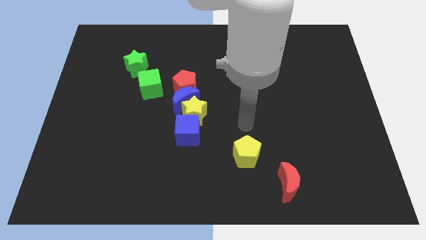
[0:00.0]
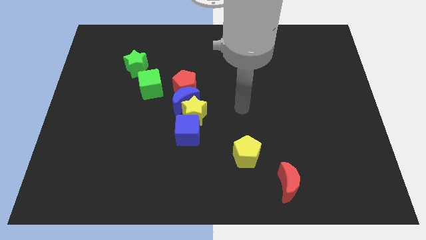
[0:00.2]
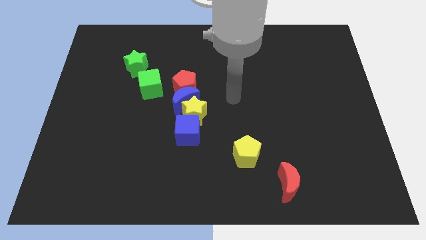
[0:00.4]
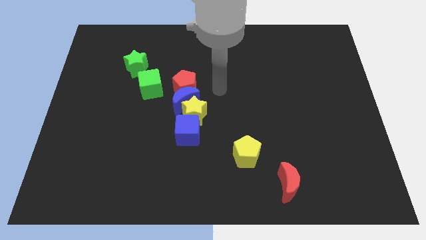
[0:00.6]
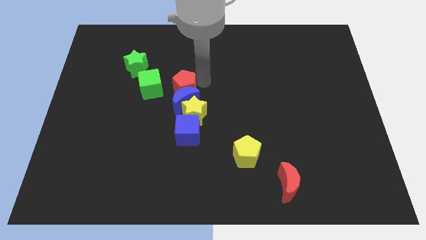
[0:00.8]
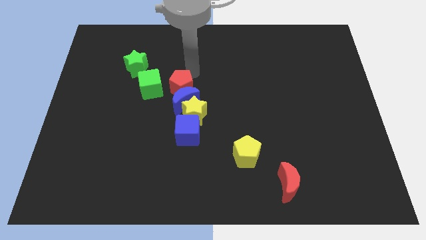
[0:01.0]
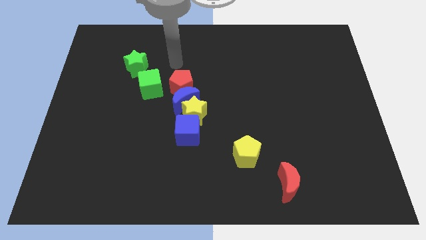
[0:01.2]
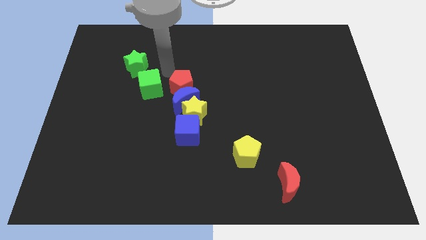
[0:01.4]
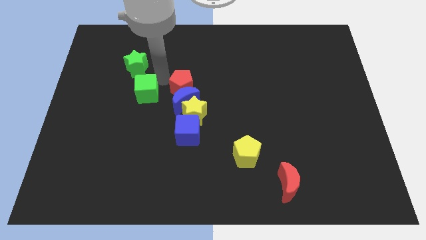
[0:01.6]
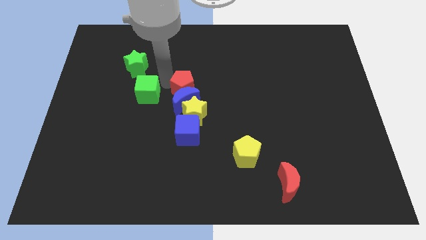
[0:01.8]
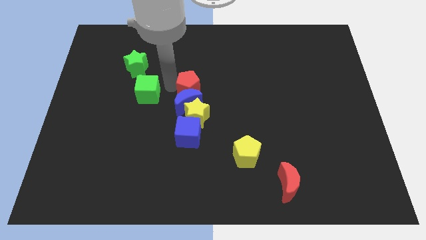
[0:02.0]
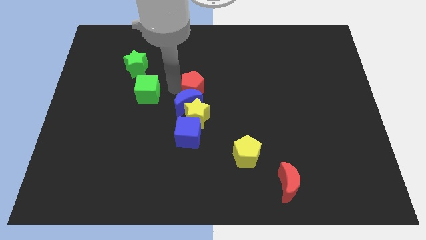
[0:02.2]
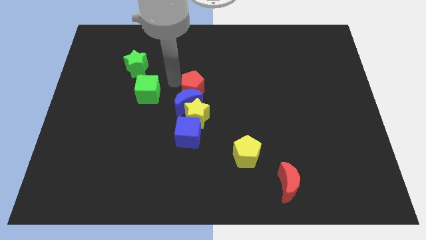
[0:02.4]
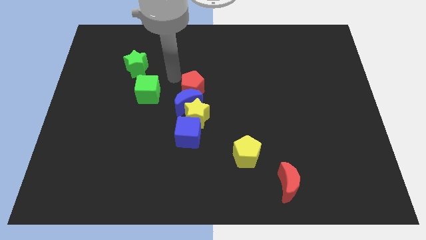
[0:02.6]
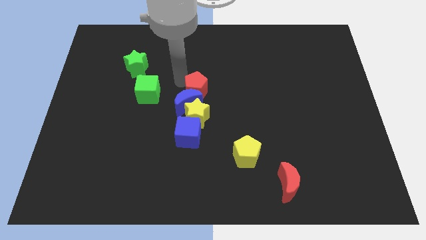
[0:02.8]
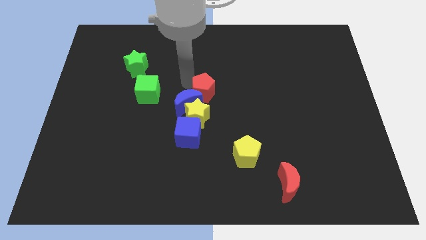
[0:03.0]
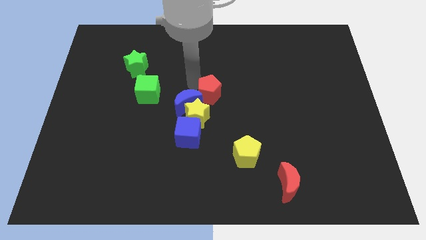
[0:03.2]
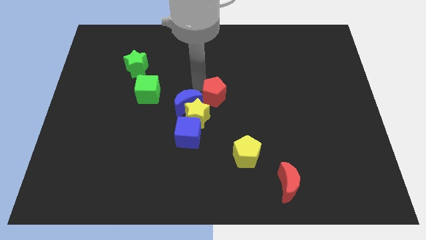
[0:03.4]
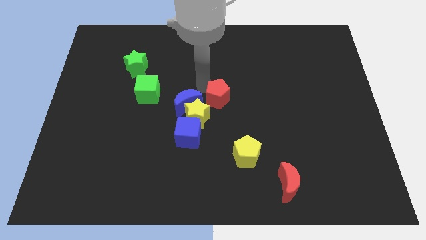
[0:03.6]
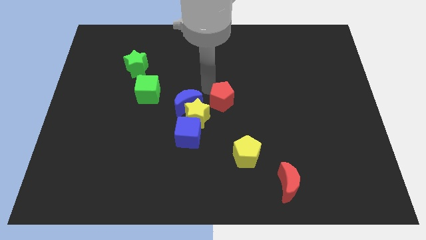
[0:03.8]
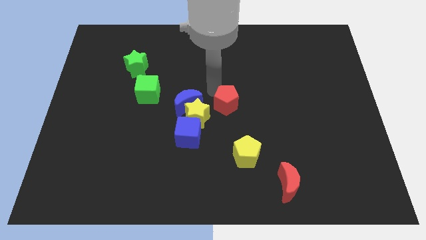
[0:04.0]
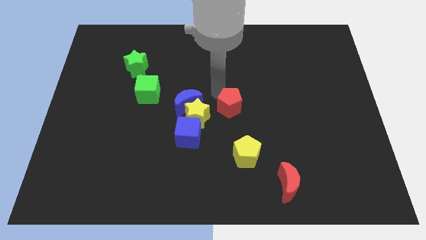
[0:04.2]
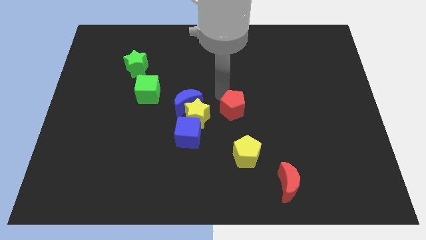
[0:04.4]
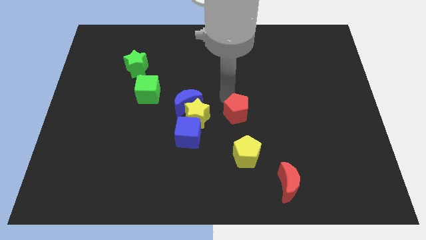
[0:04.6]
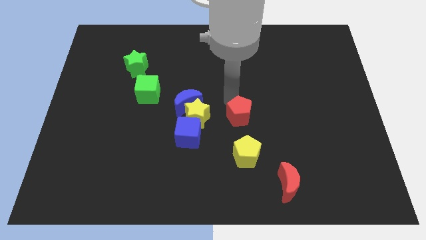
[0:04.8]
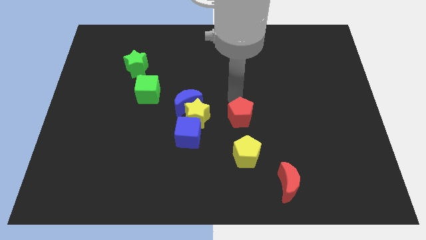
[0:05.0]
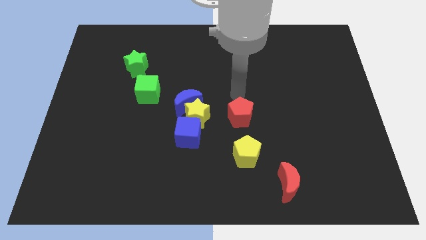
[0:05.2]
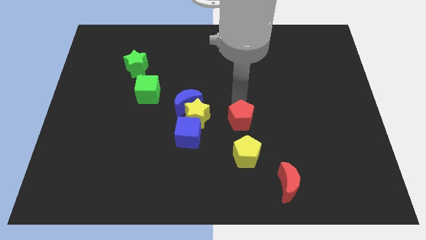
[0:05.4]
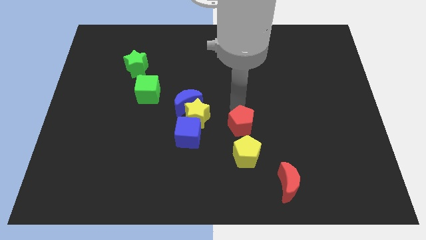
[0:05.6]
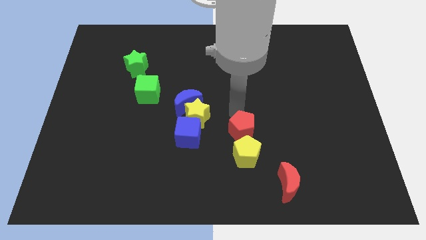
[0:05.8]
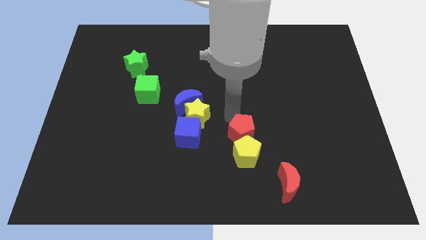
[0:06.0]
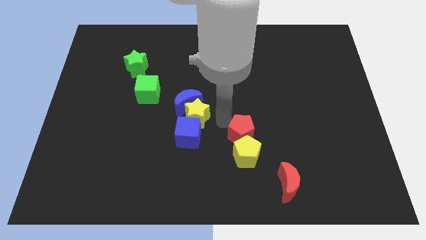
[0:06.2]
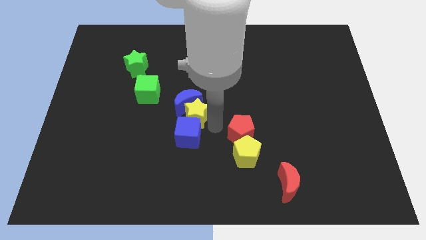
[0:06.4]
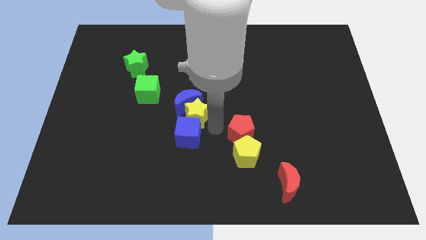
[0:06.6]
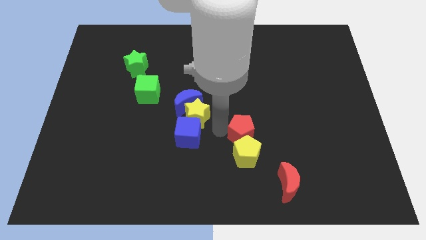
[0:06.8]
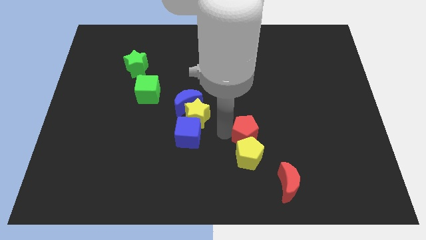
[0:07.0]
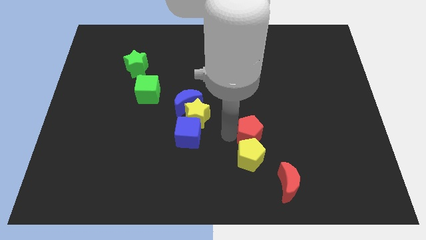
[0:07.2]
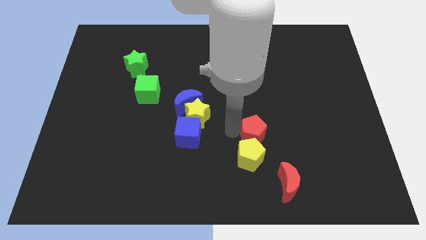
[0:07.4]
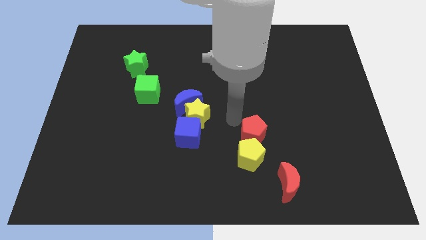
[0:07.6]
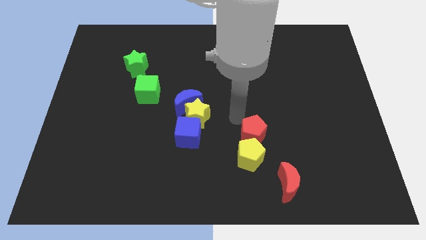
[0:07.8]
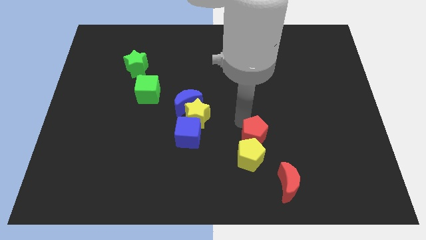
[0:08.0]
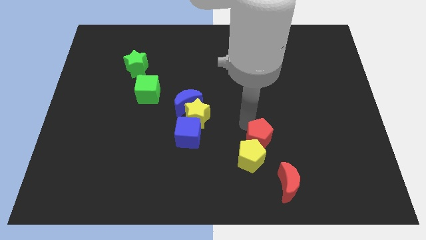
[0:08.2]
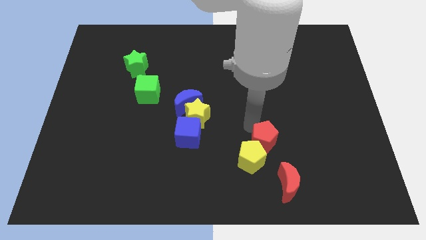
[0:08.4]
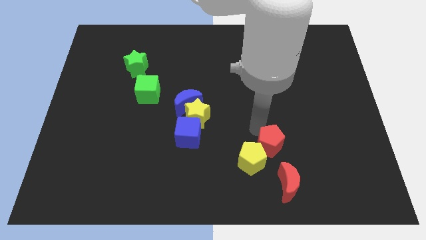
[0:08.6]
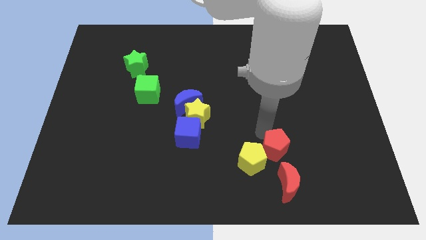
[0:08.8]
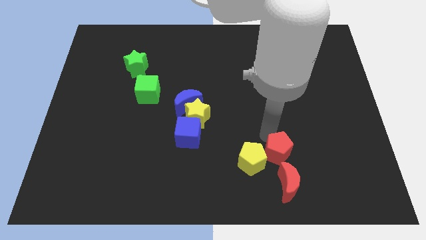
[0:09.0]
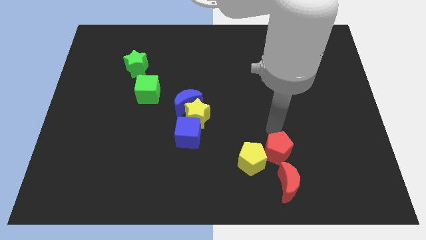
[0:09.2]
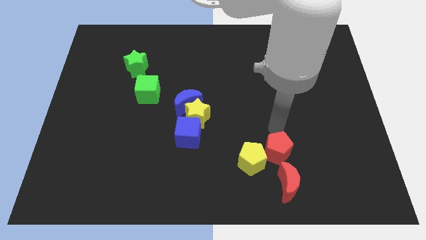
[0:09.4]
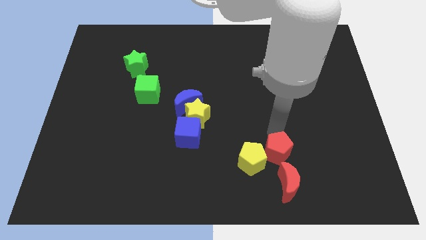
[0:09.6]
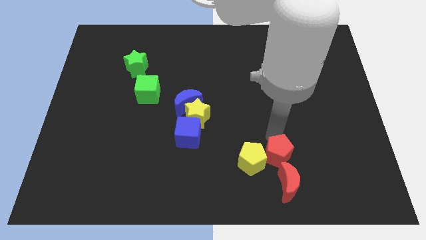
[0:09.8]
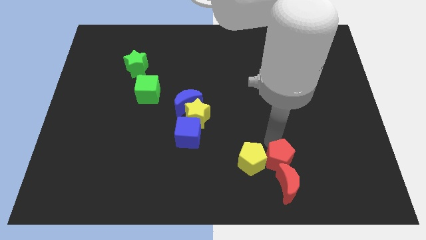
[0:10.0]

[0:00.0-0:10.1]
move the red pentagon to the red moon

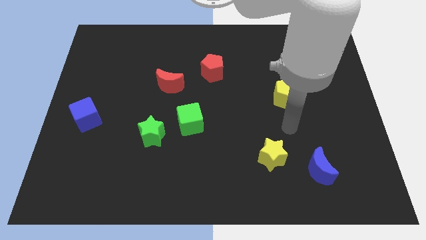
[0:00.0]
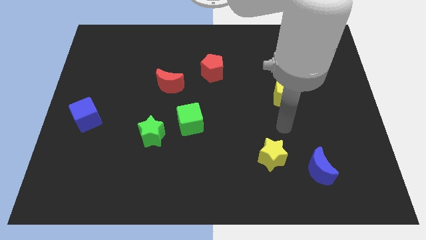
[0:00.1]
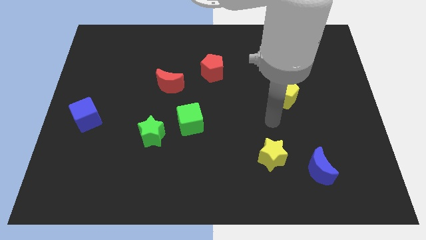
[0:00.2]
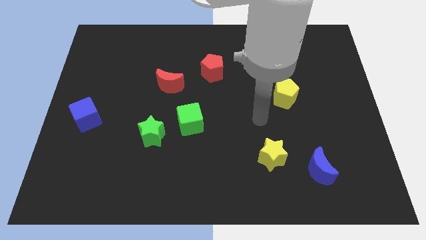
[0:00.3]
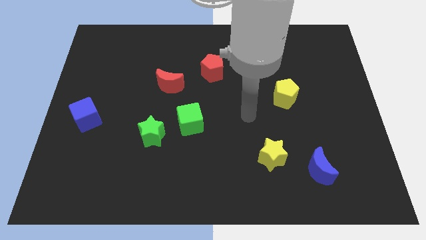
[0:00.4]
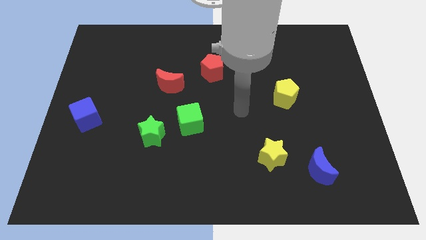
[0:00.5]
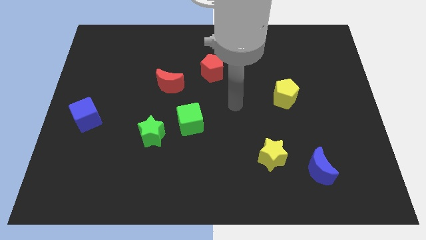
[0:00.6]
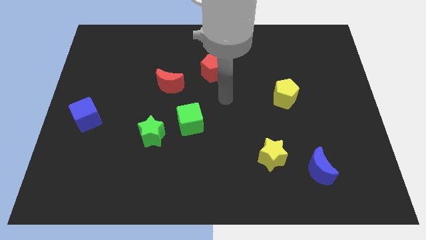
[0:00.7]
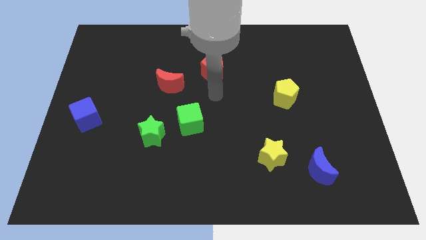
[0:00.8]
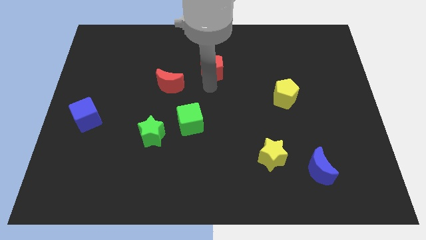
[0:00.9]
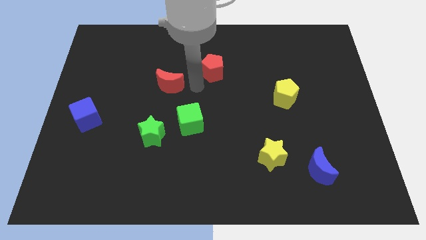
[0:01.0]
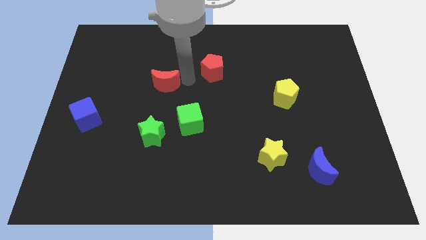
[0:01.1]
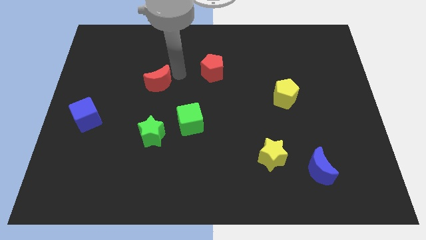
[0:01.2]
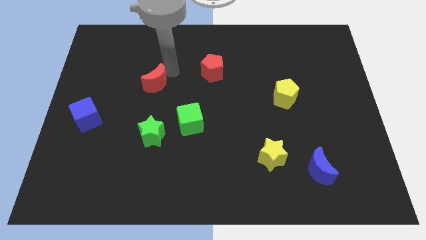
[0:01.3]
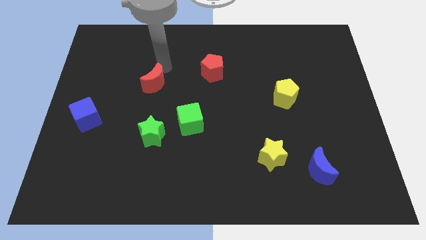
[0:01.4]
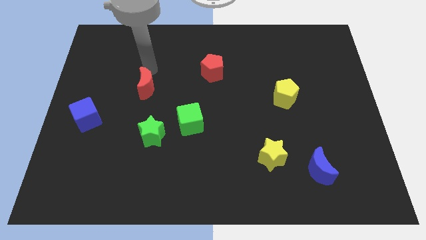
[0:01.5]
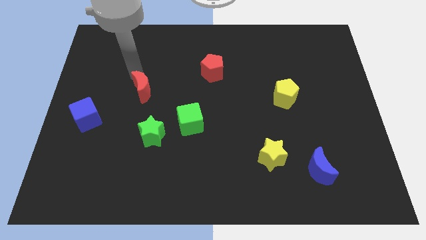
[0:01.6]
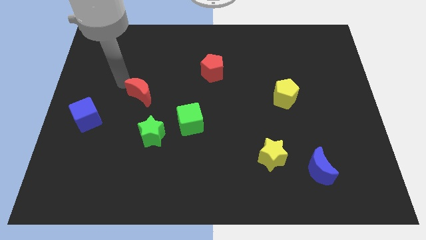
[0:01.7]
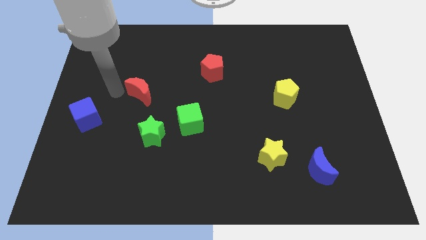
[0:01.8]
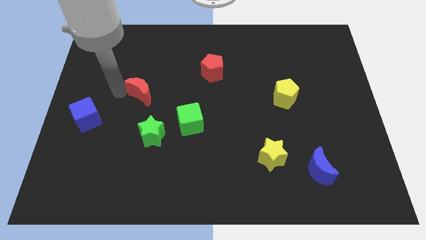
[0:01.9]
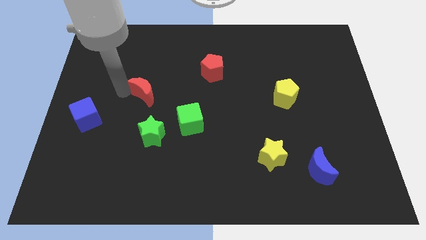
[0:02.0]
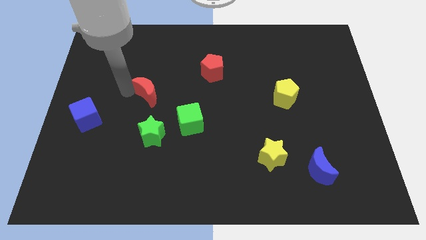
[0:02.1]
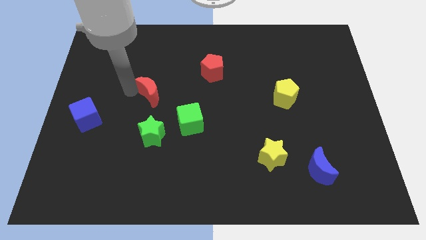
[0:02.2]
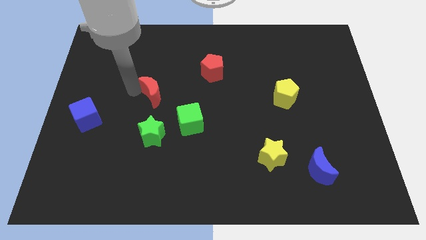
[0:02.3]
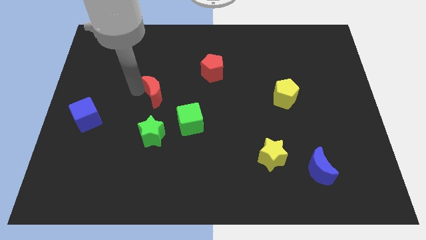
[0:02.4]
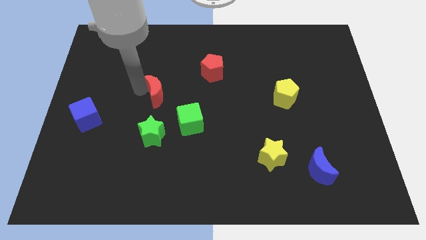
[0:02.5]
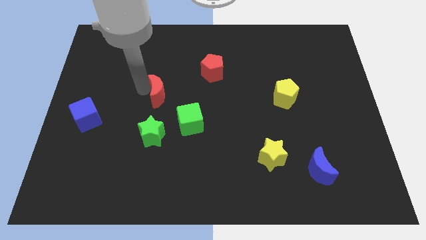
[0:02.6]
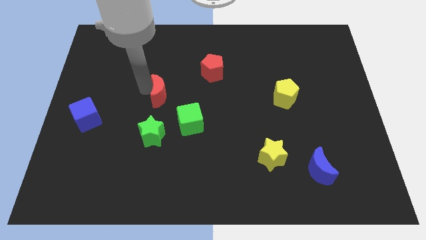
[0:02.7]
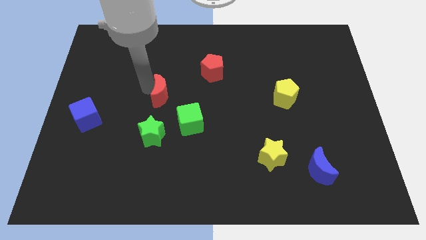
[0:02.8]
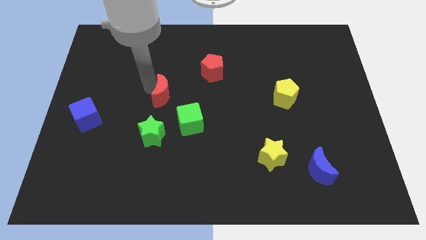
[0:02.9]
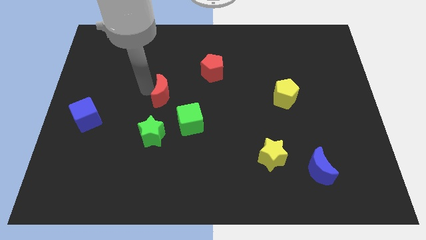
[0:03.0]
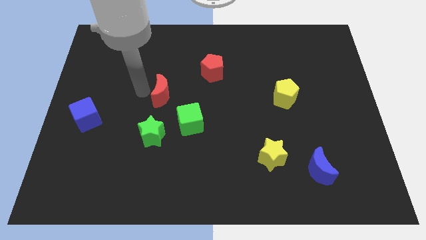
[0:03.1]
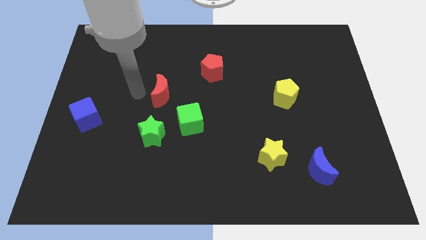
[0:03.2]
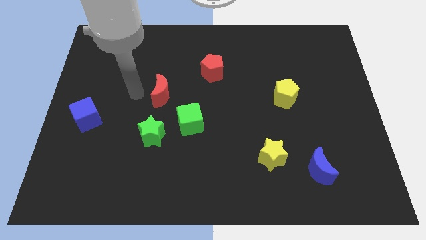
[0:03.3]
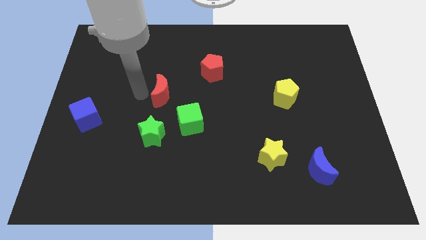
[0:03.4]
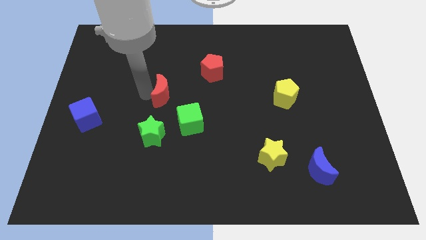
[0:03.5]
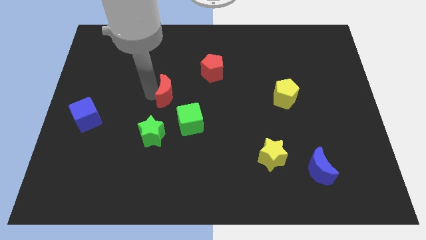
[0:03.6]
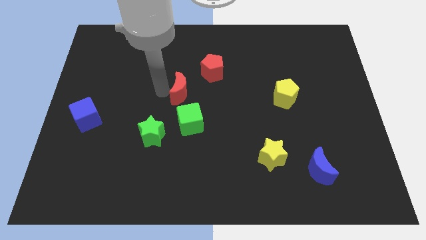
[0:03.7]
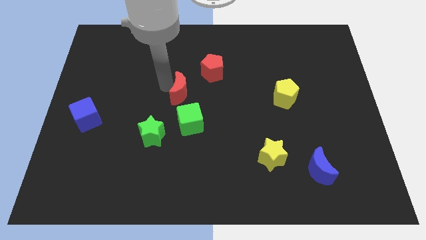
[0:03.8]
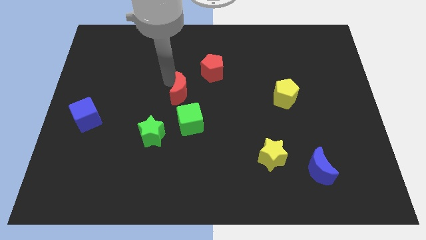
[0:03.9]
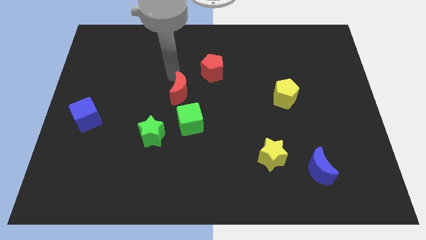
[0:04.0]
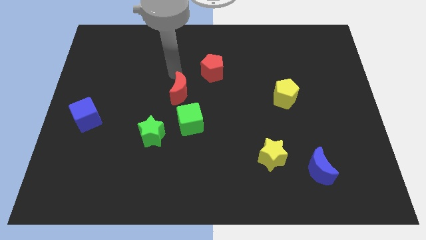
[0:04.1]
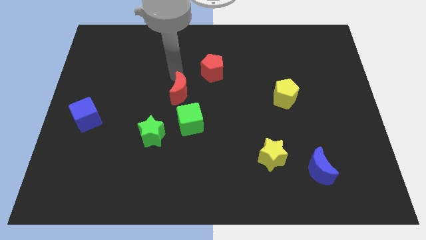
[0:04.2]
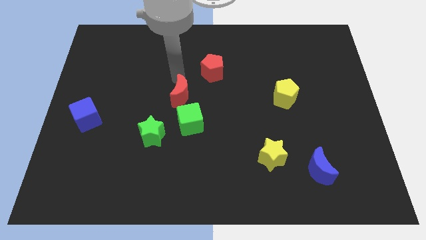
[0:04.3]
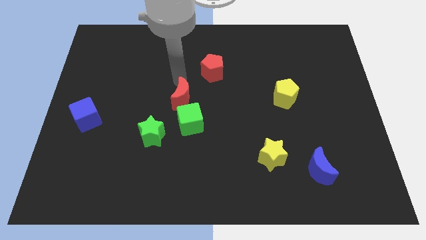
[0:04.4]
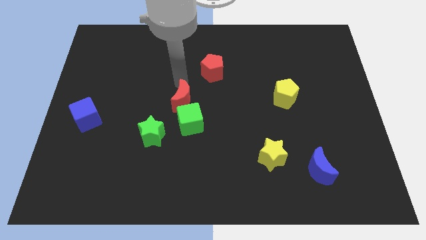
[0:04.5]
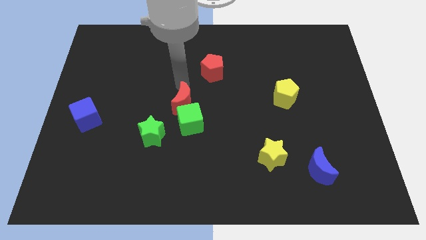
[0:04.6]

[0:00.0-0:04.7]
slide the red moon close to the green cube
